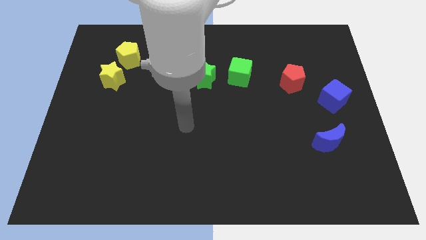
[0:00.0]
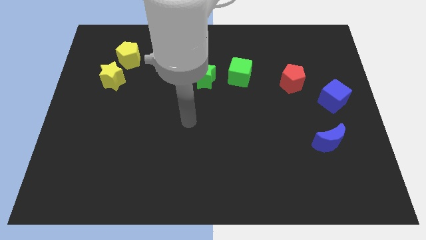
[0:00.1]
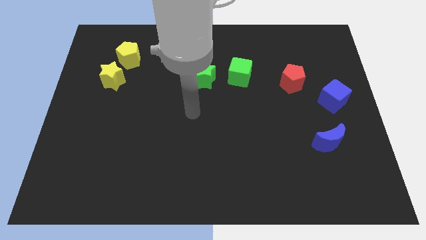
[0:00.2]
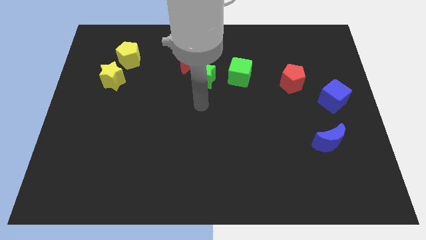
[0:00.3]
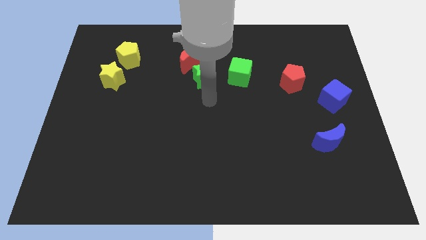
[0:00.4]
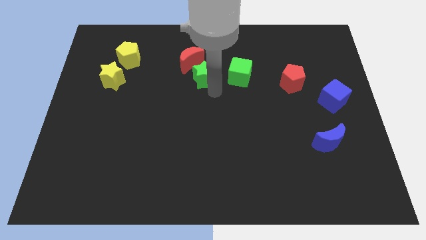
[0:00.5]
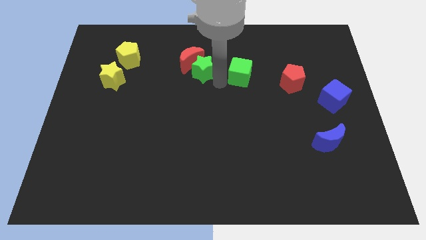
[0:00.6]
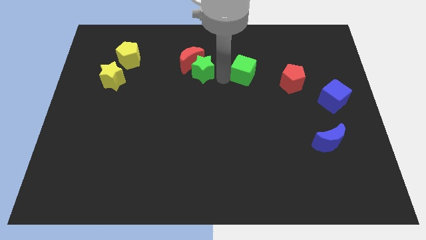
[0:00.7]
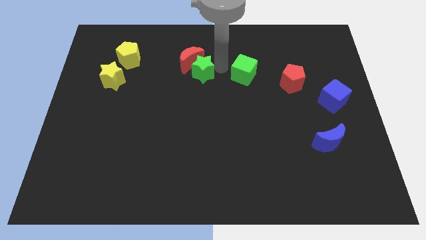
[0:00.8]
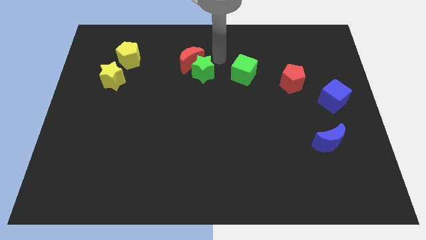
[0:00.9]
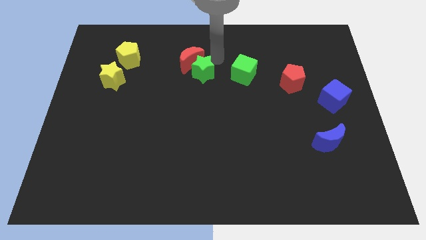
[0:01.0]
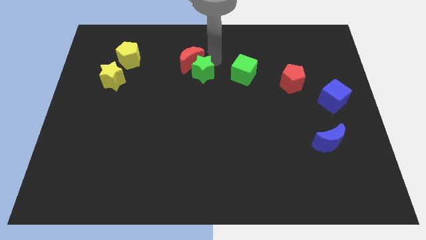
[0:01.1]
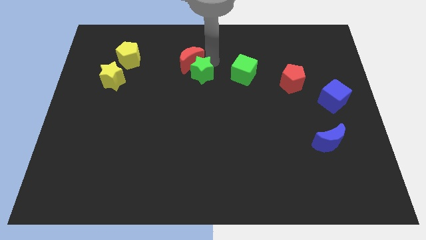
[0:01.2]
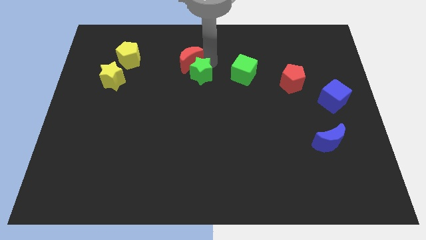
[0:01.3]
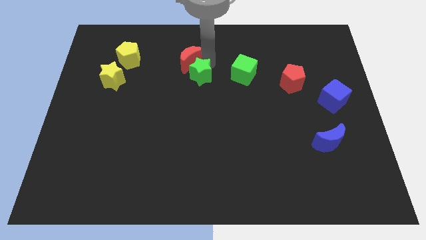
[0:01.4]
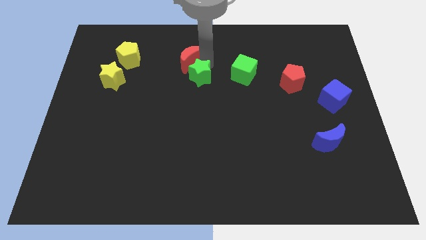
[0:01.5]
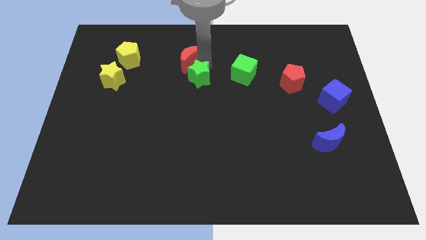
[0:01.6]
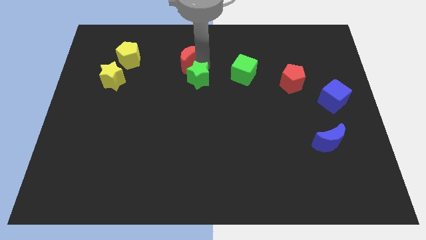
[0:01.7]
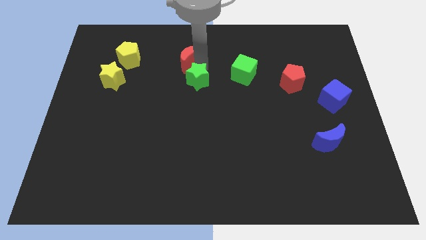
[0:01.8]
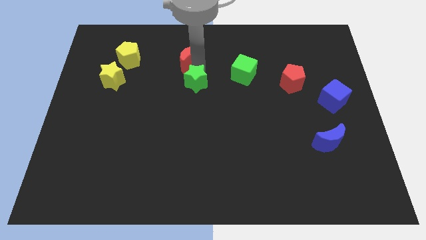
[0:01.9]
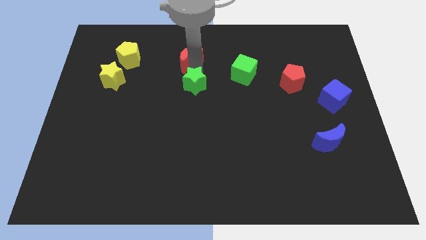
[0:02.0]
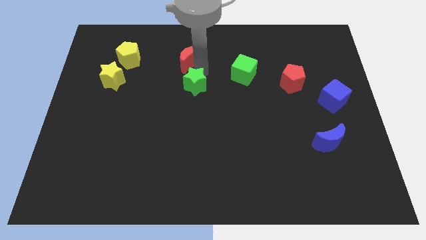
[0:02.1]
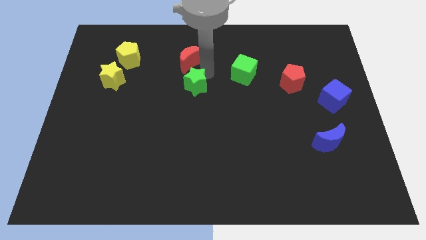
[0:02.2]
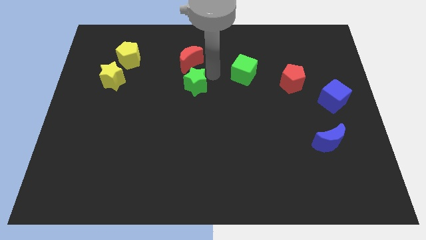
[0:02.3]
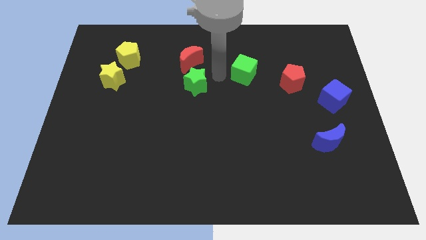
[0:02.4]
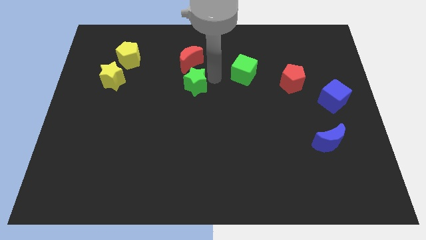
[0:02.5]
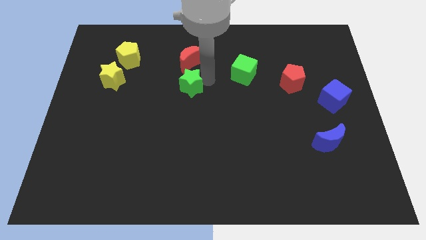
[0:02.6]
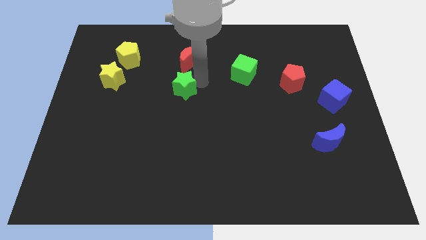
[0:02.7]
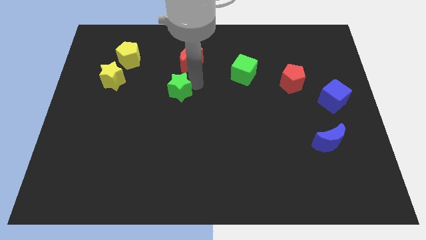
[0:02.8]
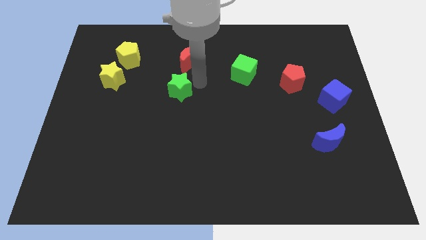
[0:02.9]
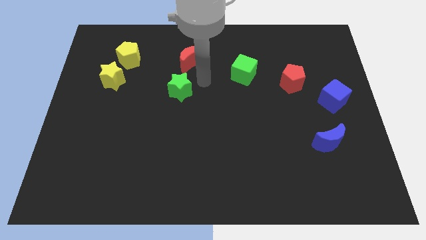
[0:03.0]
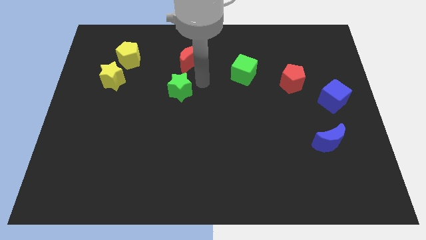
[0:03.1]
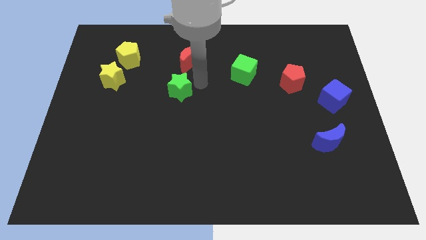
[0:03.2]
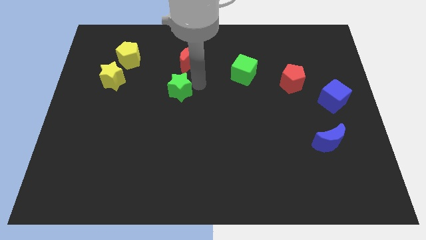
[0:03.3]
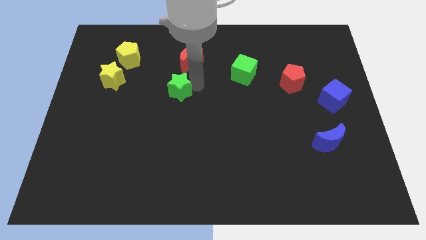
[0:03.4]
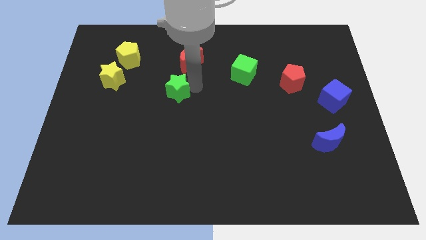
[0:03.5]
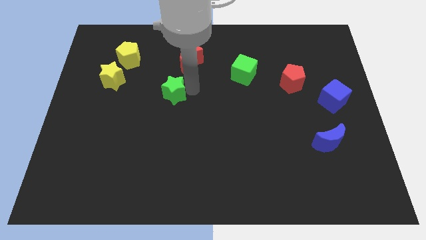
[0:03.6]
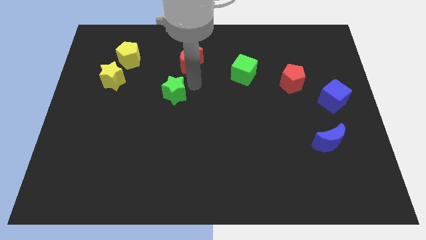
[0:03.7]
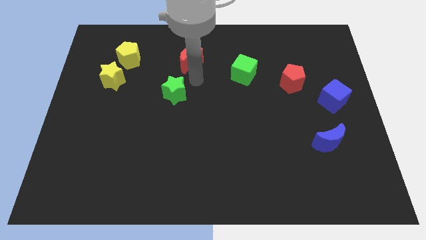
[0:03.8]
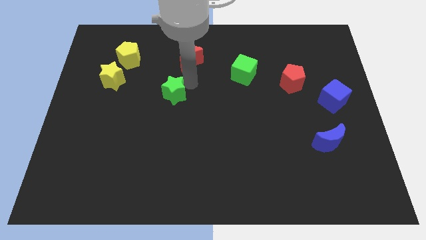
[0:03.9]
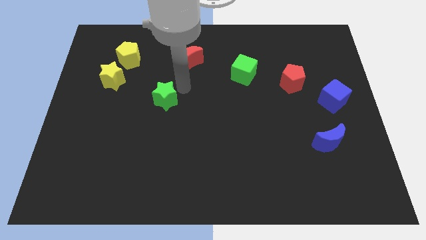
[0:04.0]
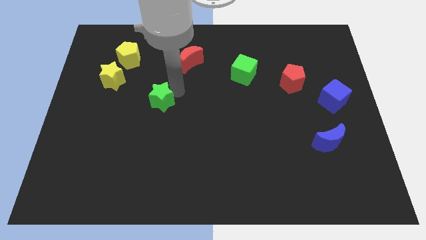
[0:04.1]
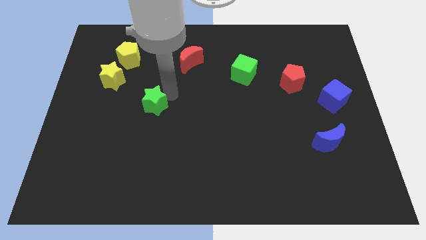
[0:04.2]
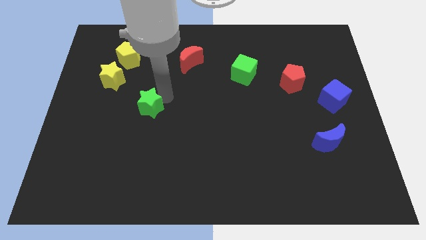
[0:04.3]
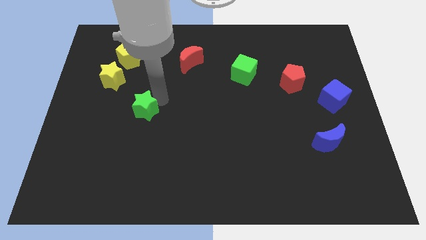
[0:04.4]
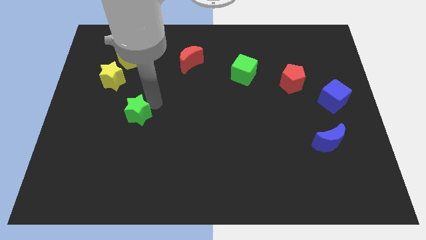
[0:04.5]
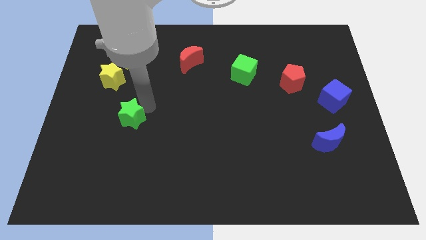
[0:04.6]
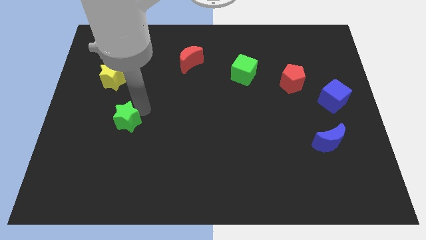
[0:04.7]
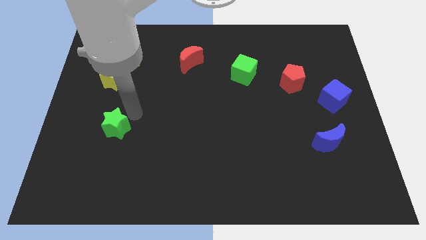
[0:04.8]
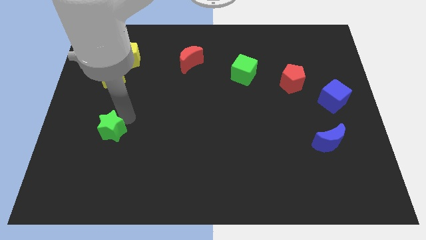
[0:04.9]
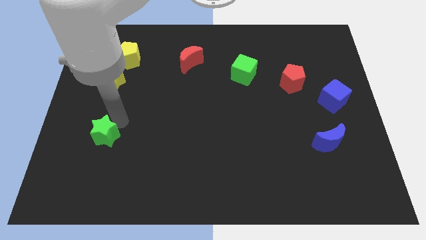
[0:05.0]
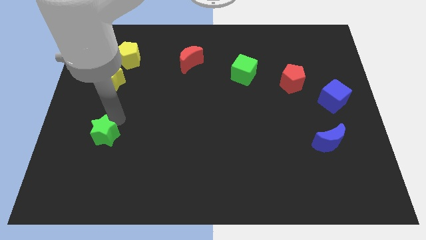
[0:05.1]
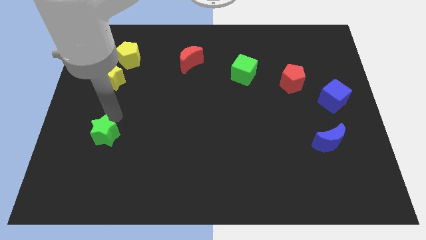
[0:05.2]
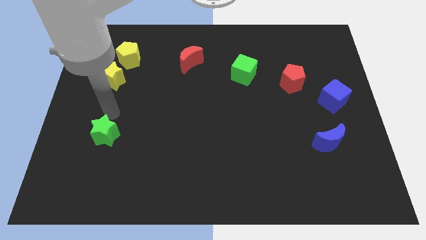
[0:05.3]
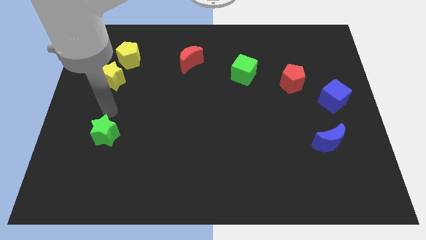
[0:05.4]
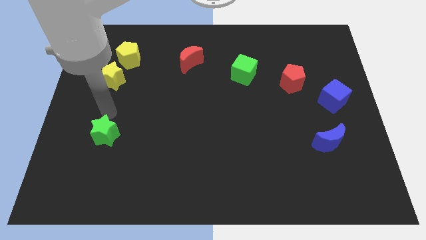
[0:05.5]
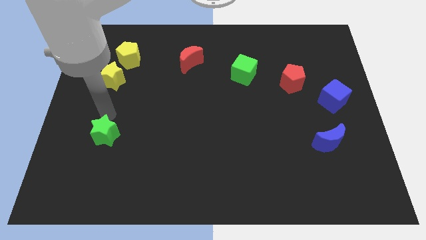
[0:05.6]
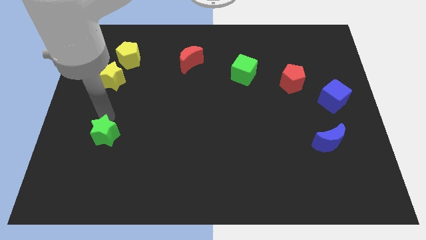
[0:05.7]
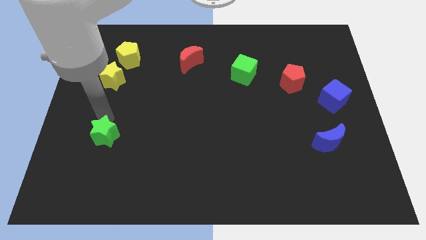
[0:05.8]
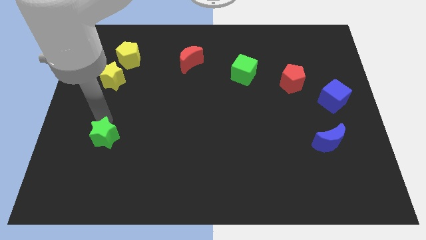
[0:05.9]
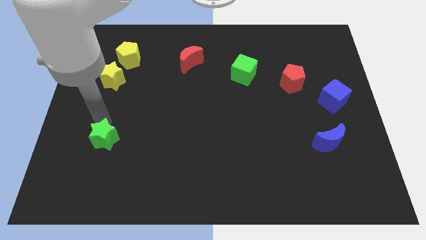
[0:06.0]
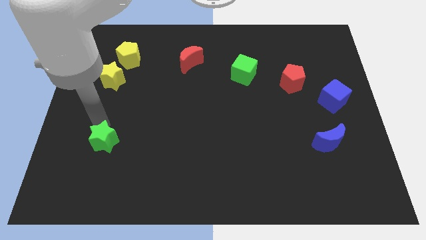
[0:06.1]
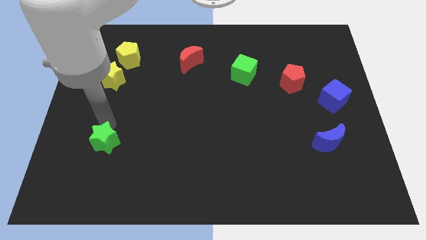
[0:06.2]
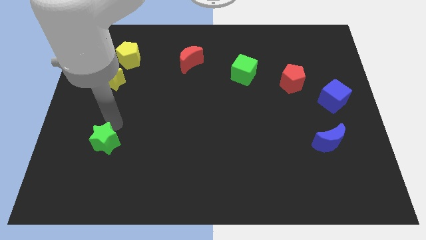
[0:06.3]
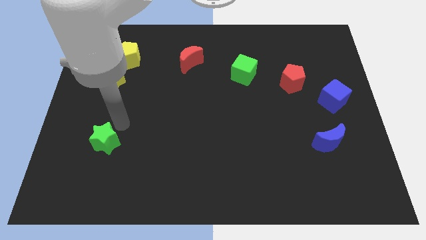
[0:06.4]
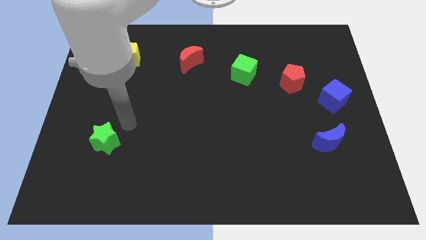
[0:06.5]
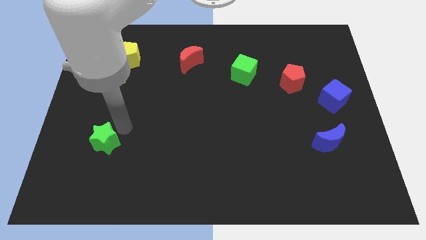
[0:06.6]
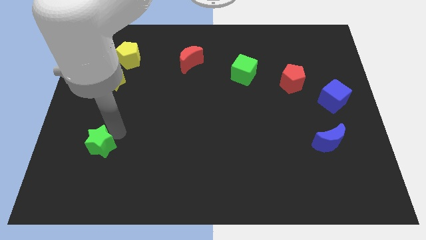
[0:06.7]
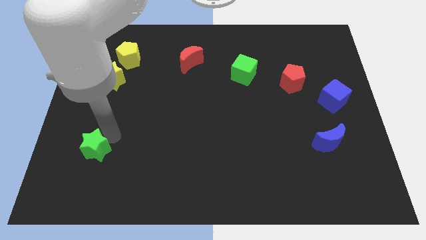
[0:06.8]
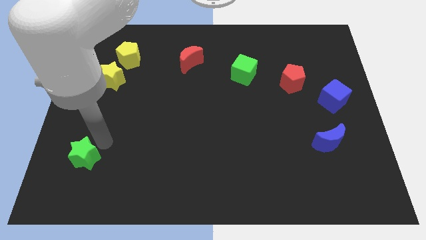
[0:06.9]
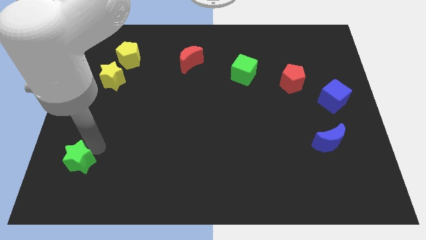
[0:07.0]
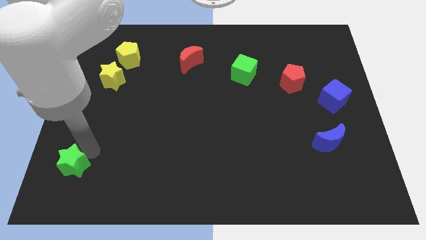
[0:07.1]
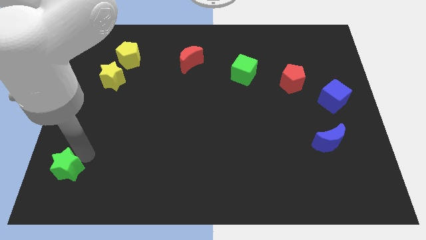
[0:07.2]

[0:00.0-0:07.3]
push the green star to the bottom left corner
